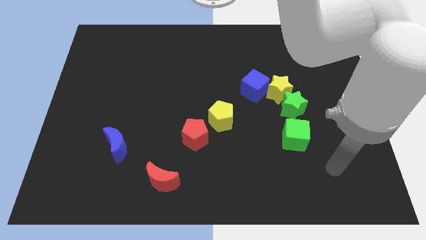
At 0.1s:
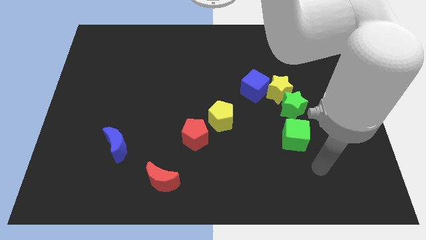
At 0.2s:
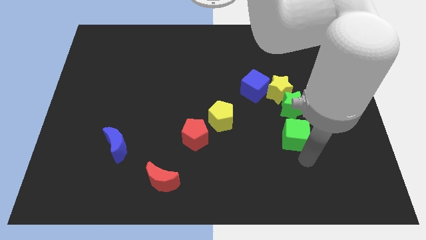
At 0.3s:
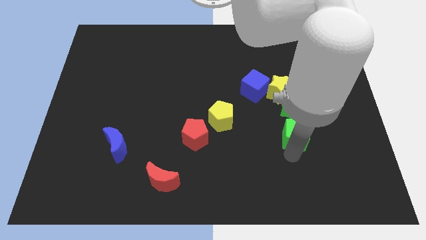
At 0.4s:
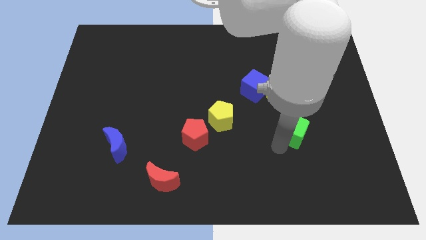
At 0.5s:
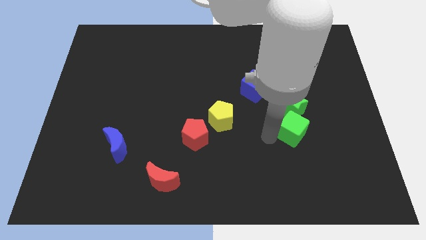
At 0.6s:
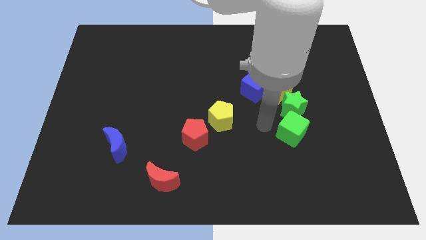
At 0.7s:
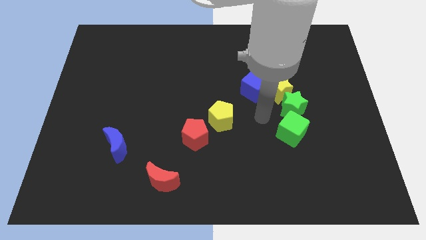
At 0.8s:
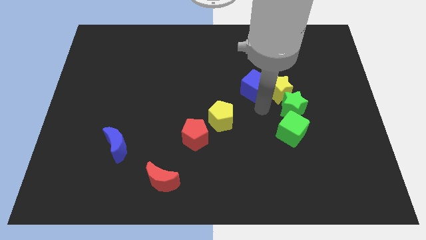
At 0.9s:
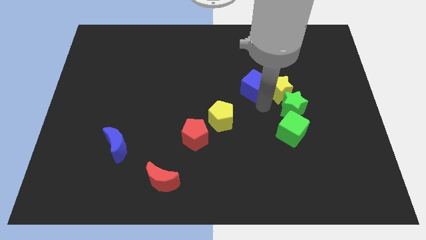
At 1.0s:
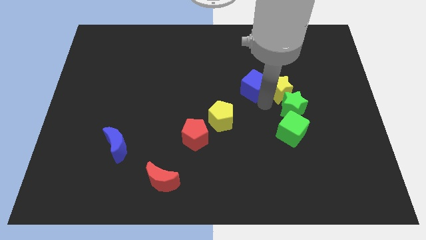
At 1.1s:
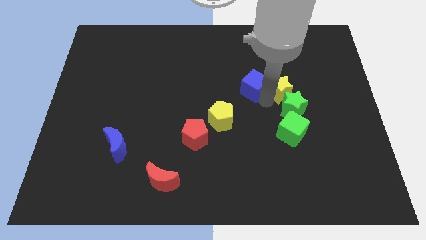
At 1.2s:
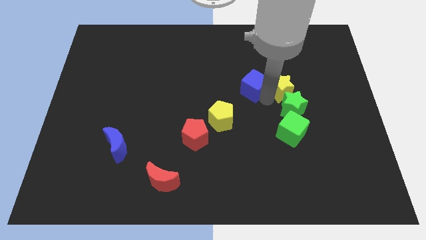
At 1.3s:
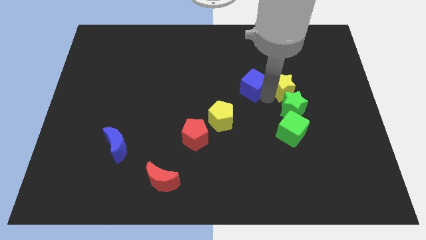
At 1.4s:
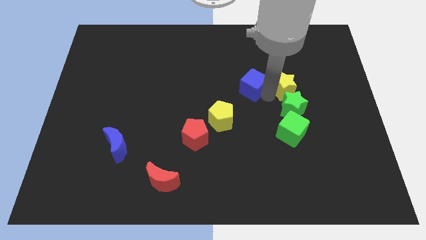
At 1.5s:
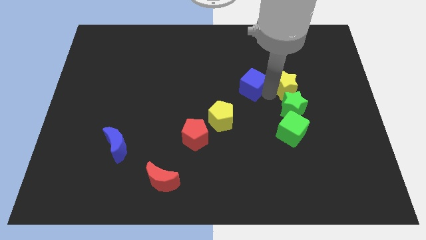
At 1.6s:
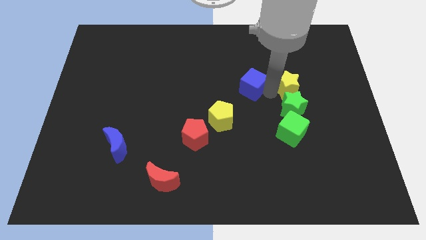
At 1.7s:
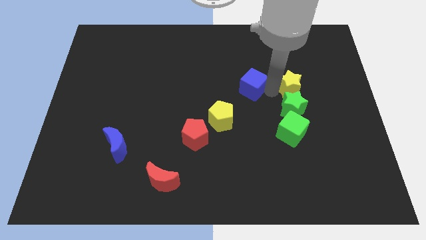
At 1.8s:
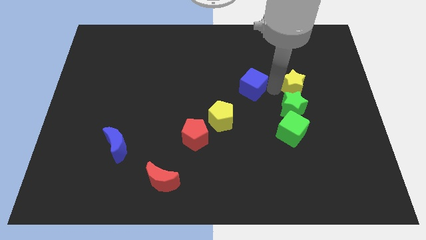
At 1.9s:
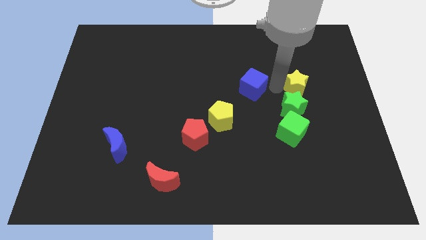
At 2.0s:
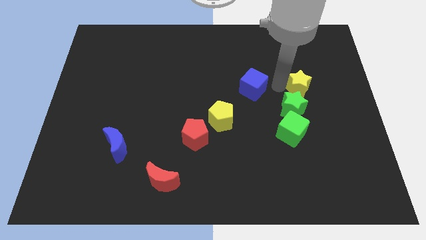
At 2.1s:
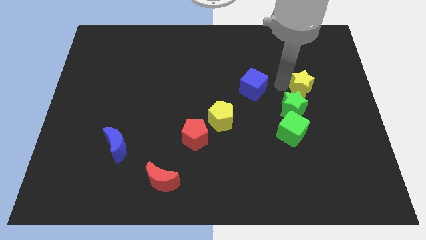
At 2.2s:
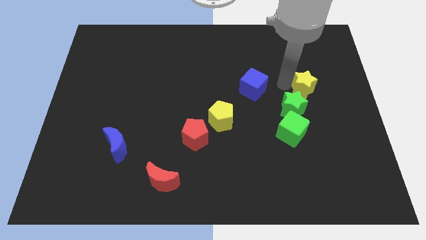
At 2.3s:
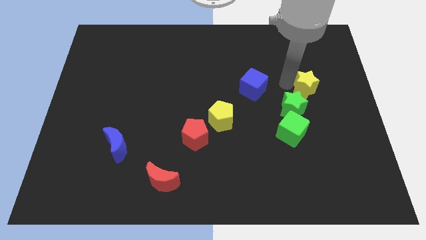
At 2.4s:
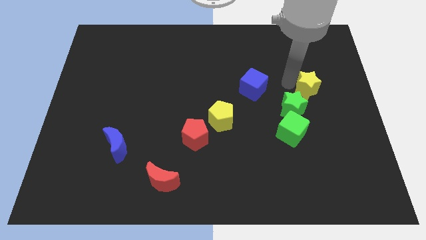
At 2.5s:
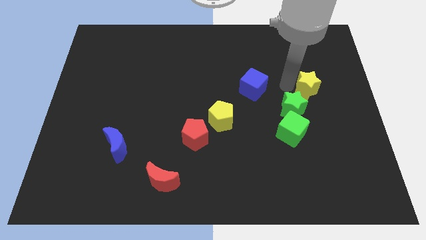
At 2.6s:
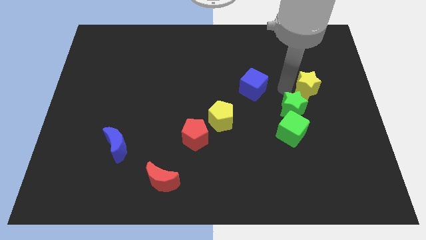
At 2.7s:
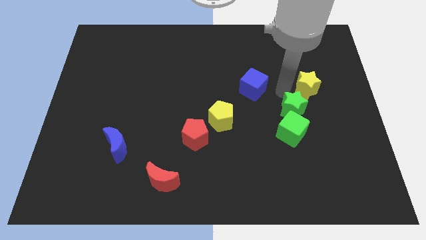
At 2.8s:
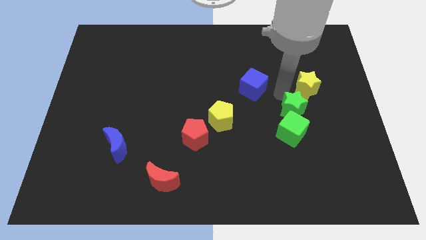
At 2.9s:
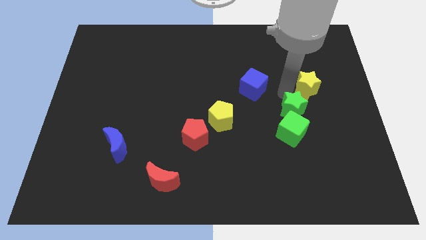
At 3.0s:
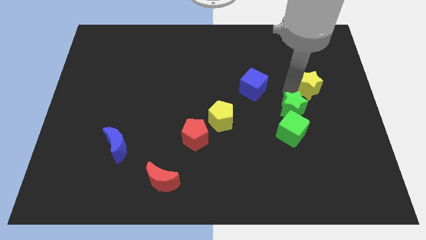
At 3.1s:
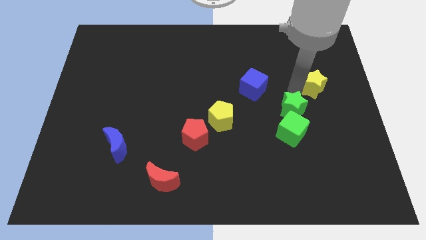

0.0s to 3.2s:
separate the yellow star from the green star and blue cube

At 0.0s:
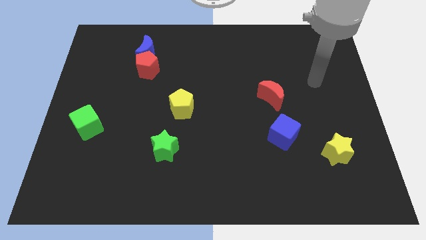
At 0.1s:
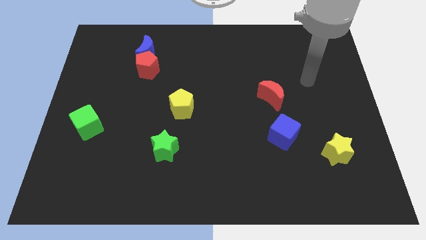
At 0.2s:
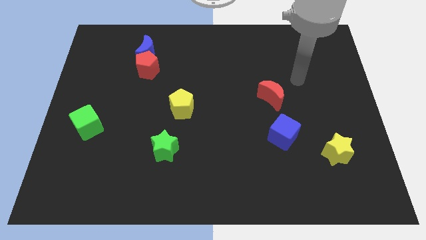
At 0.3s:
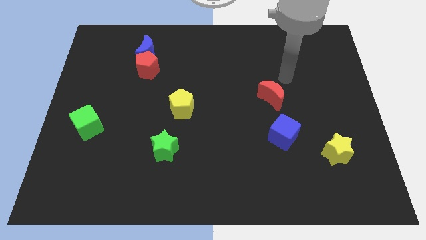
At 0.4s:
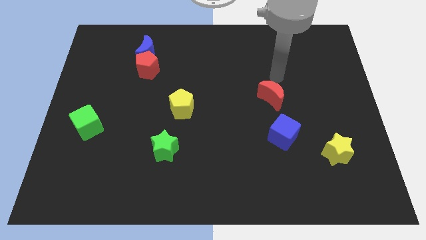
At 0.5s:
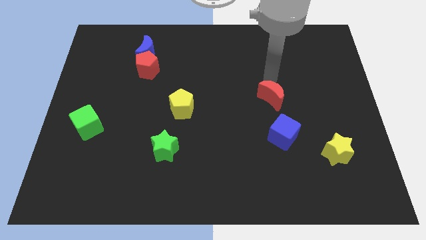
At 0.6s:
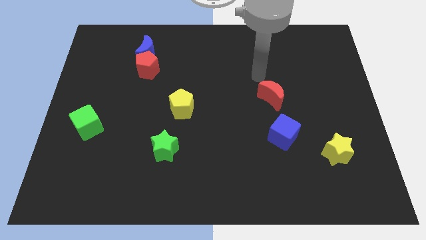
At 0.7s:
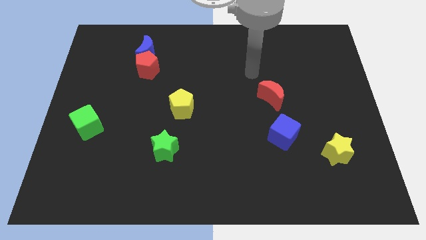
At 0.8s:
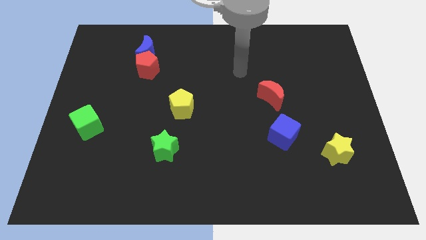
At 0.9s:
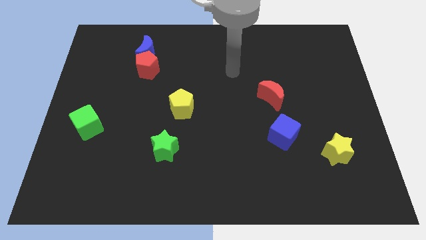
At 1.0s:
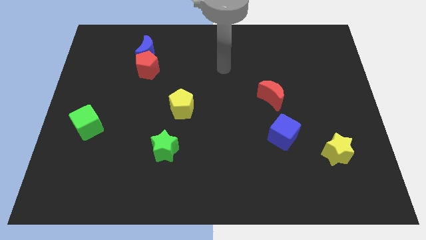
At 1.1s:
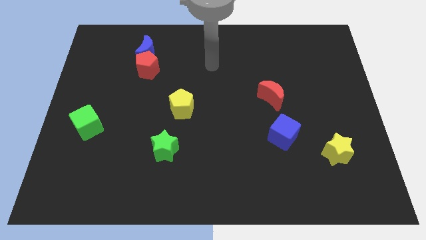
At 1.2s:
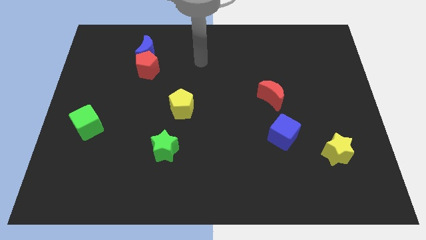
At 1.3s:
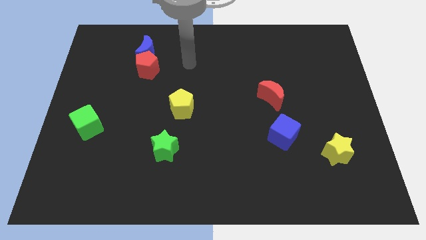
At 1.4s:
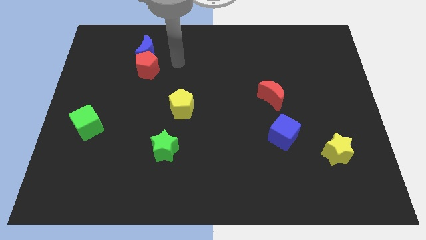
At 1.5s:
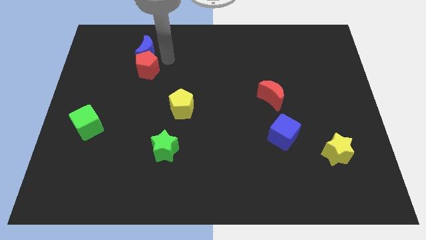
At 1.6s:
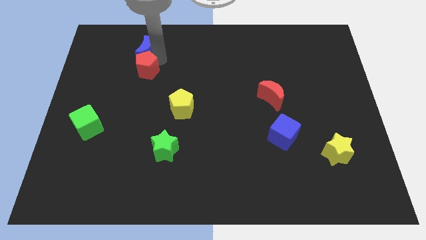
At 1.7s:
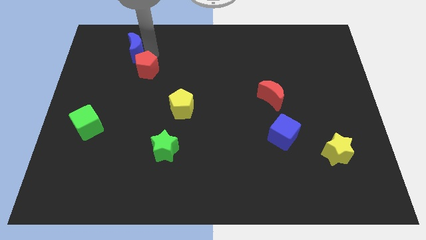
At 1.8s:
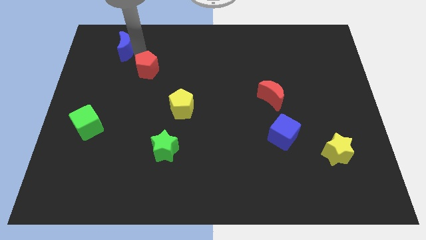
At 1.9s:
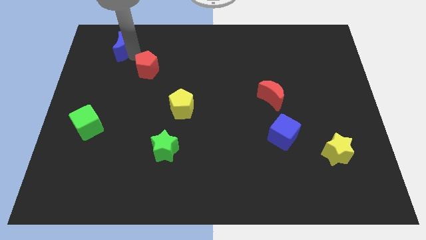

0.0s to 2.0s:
pull the red pentagon apart from the blue moon

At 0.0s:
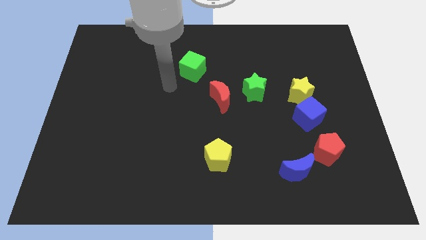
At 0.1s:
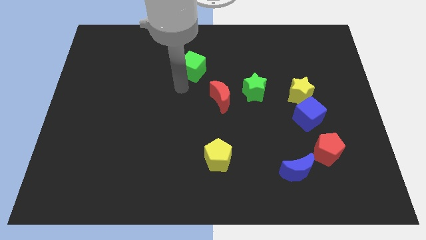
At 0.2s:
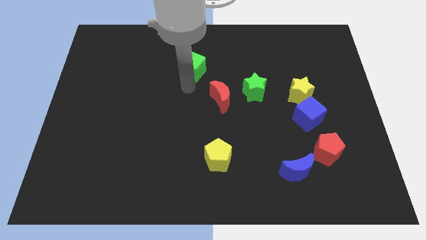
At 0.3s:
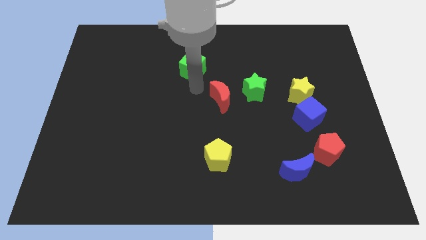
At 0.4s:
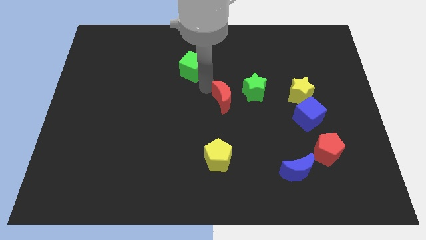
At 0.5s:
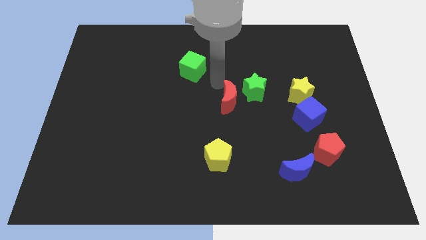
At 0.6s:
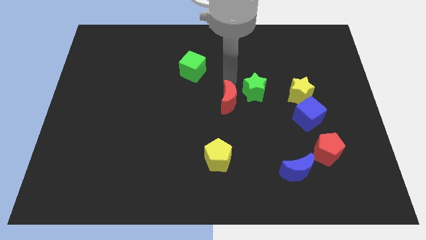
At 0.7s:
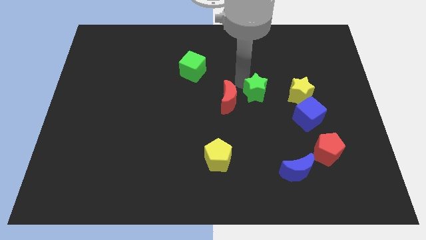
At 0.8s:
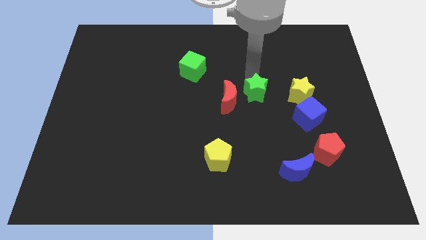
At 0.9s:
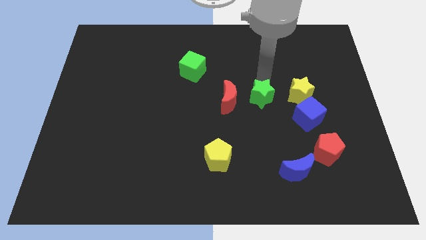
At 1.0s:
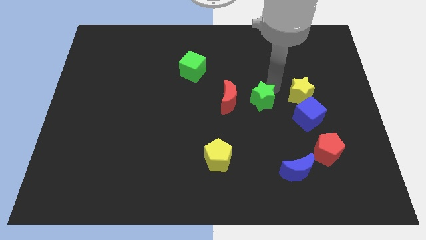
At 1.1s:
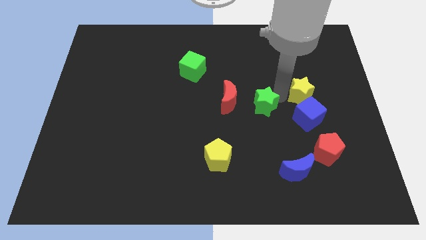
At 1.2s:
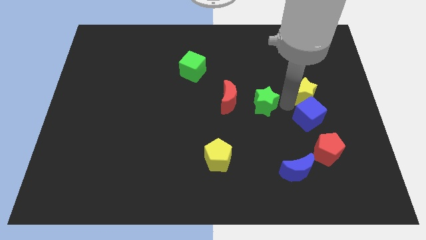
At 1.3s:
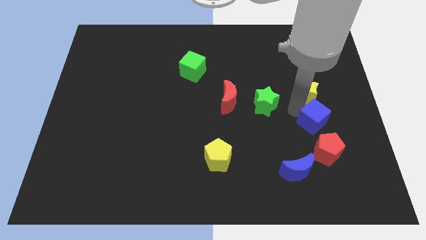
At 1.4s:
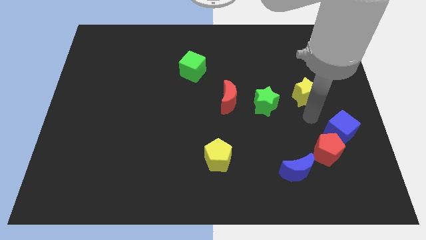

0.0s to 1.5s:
pull the yellow star apart from the blue cube

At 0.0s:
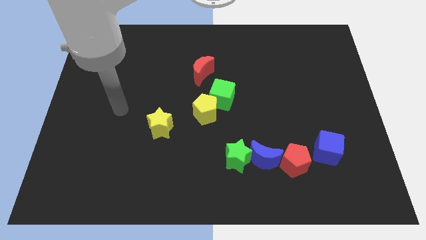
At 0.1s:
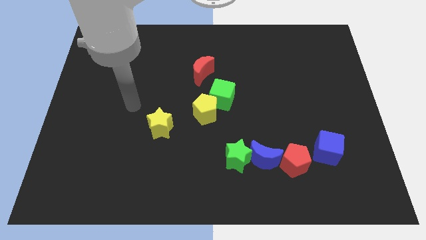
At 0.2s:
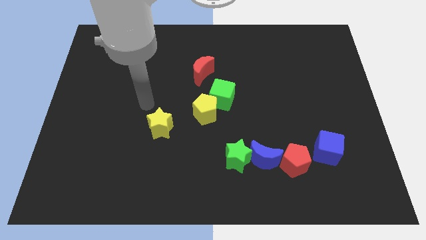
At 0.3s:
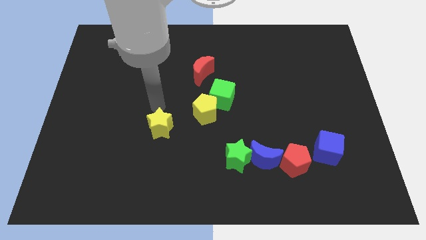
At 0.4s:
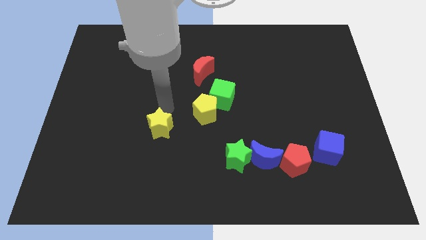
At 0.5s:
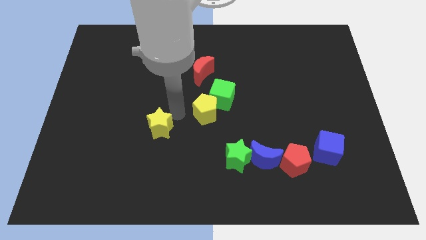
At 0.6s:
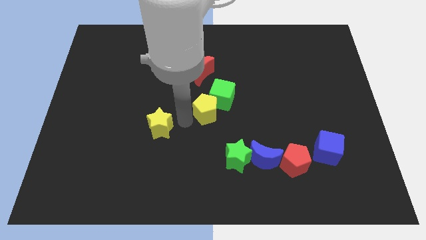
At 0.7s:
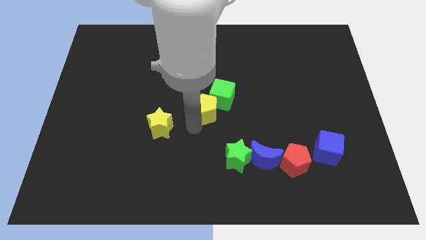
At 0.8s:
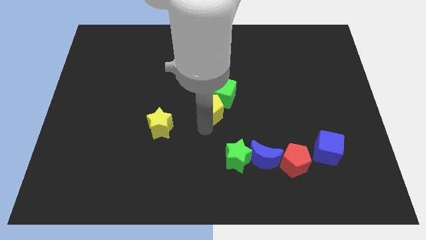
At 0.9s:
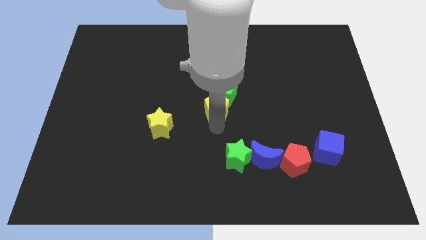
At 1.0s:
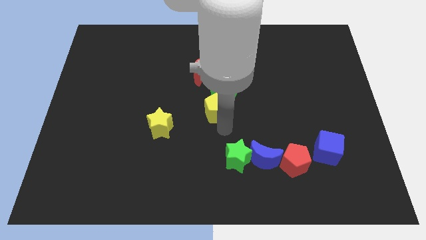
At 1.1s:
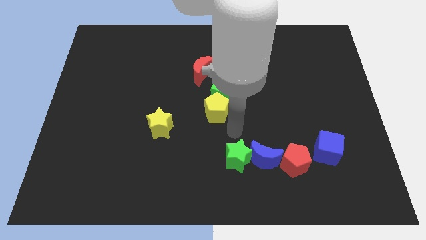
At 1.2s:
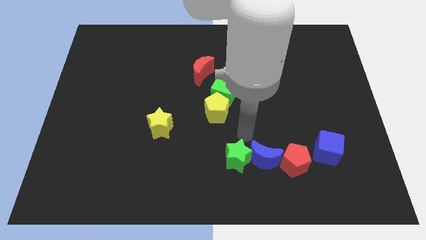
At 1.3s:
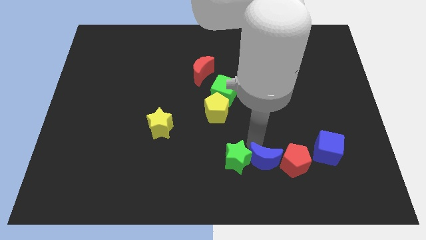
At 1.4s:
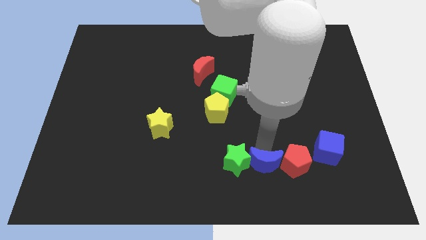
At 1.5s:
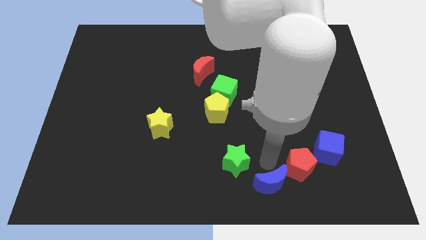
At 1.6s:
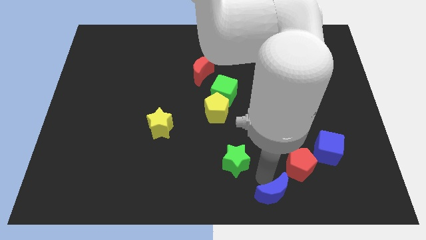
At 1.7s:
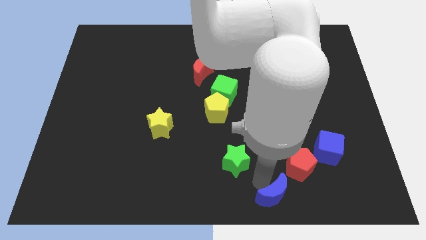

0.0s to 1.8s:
move the green star away from the blue moon

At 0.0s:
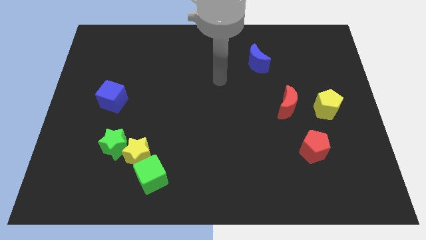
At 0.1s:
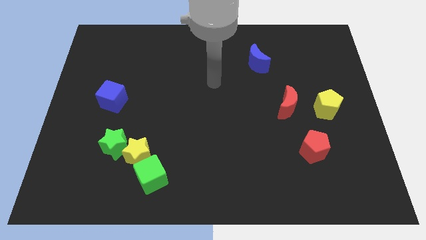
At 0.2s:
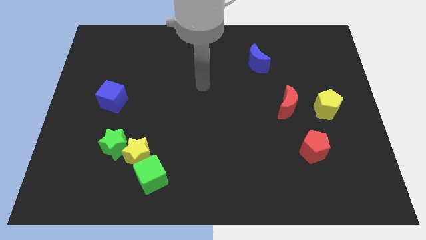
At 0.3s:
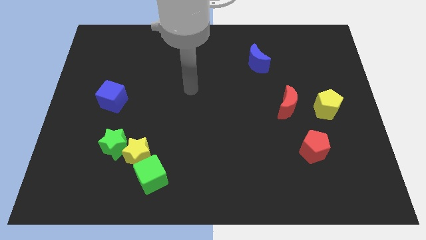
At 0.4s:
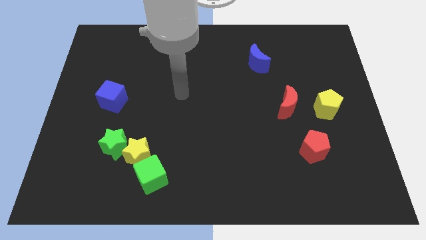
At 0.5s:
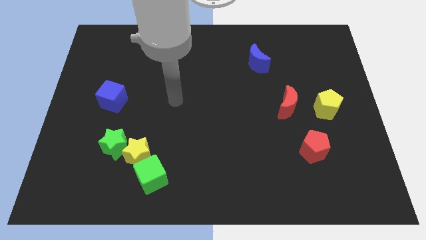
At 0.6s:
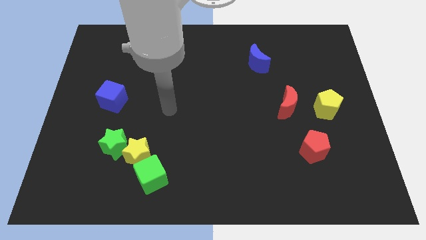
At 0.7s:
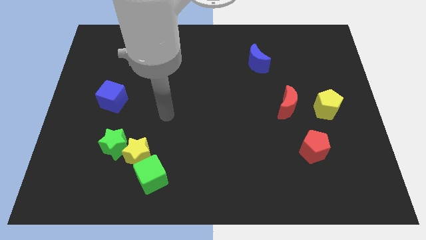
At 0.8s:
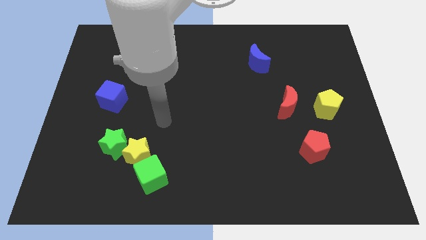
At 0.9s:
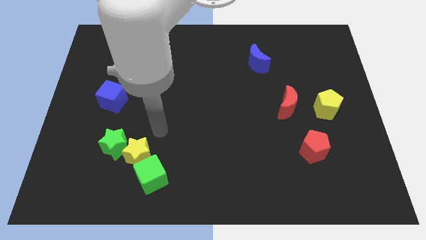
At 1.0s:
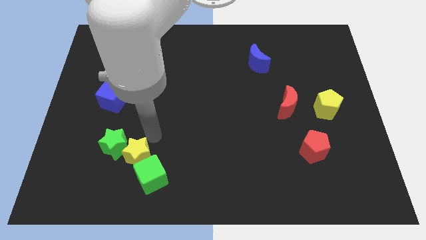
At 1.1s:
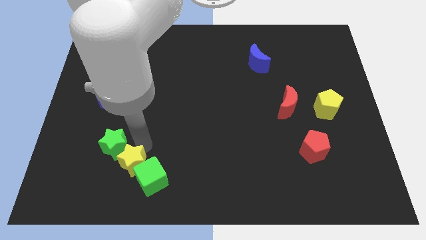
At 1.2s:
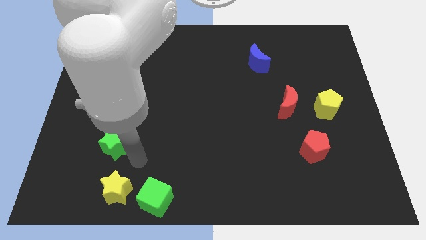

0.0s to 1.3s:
move the green star away from the yellow star
